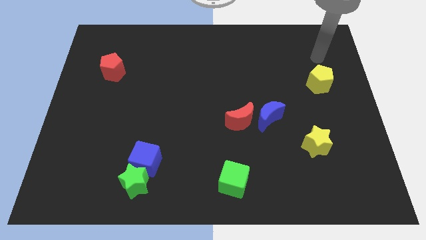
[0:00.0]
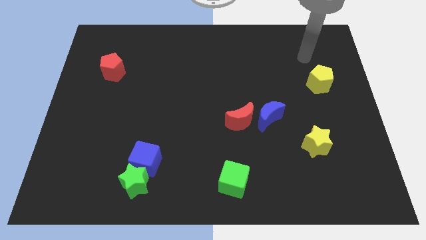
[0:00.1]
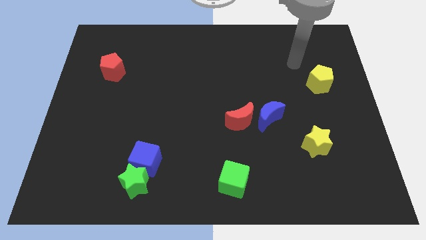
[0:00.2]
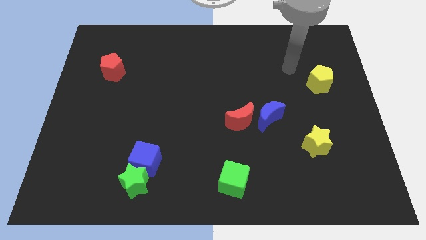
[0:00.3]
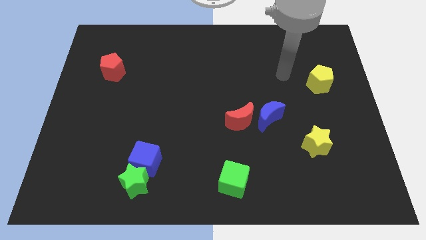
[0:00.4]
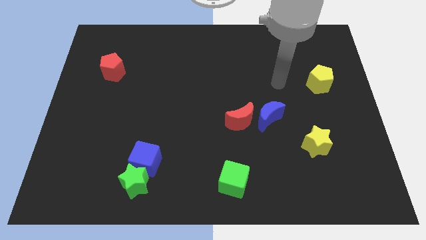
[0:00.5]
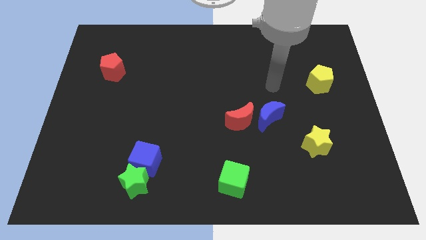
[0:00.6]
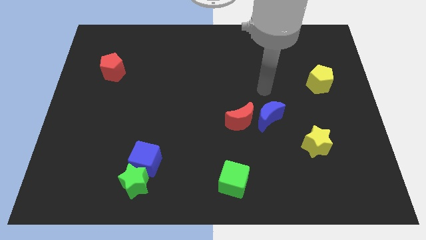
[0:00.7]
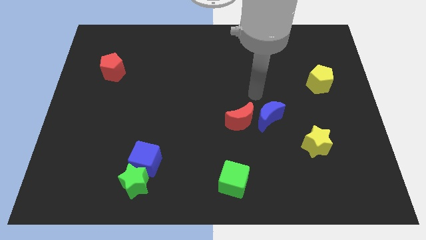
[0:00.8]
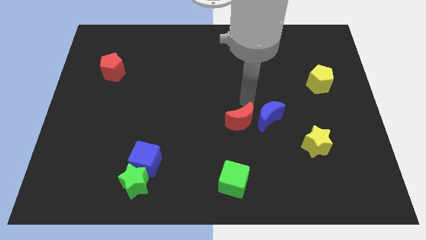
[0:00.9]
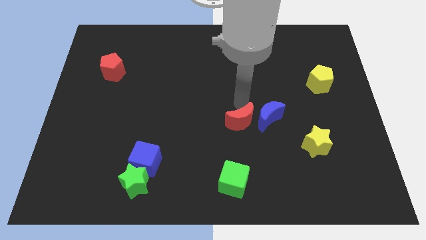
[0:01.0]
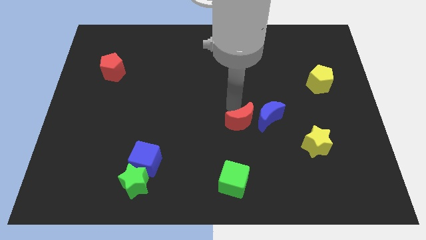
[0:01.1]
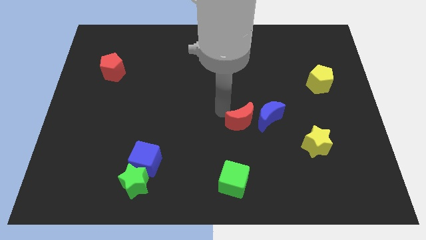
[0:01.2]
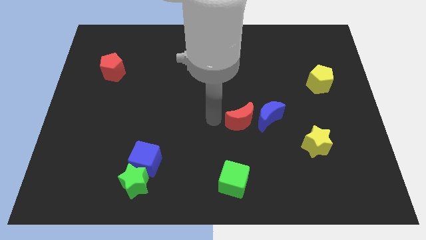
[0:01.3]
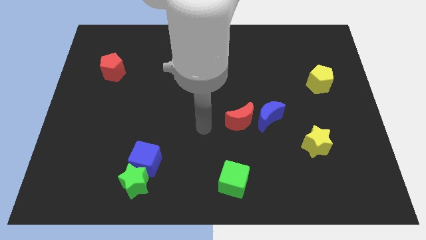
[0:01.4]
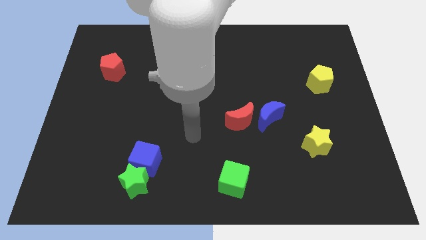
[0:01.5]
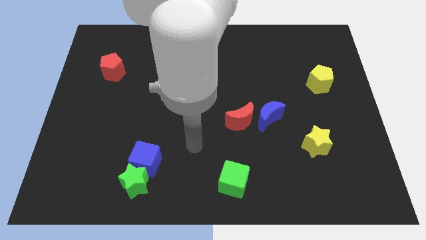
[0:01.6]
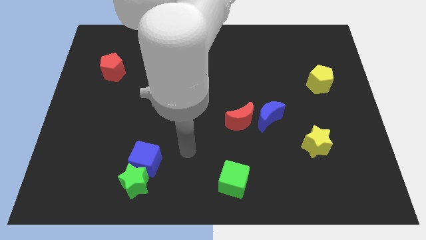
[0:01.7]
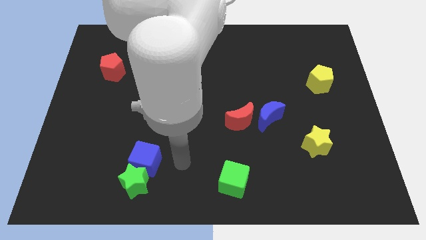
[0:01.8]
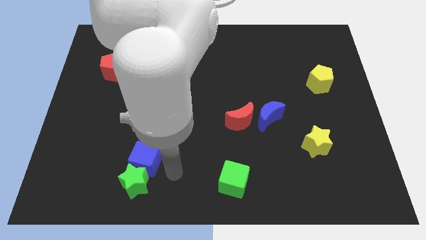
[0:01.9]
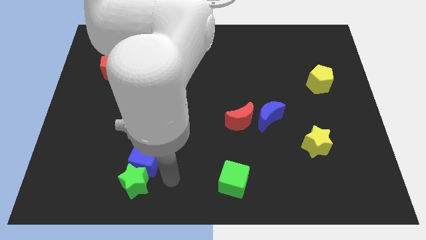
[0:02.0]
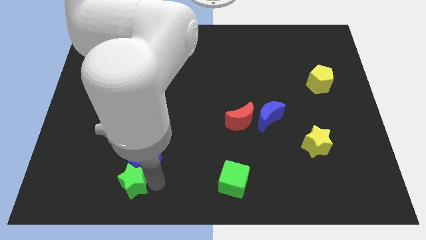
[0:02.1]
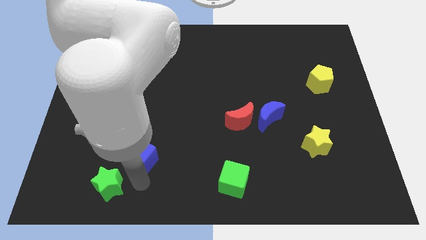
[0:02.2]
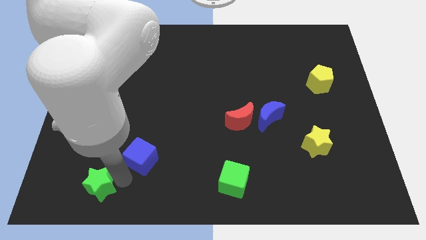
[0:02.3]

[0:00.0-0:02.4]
move the blue cube away from the green star

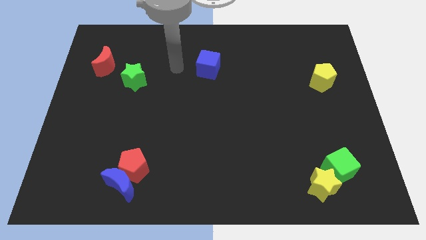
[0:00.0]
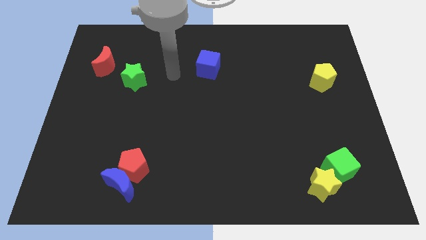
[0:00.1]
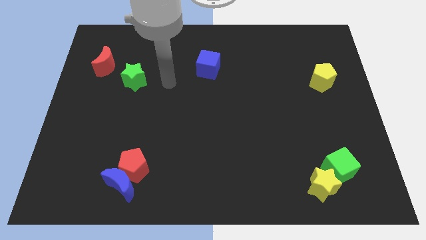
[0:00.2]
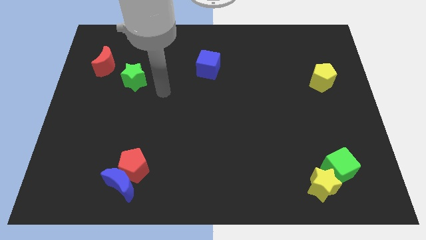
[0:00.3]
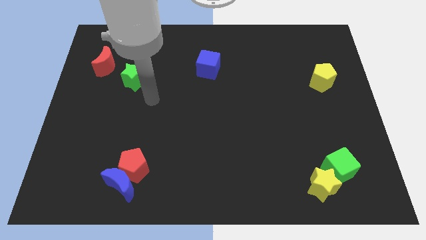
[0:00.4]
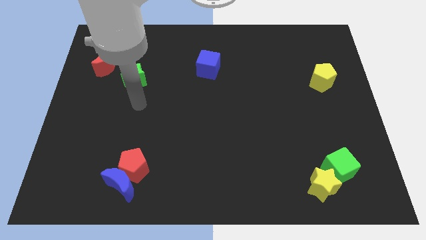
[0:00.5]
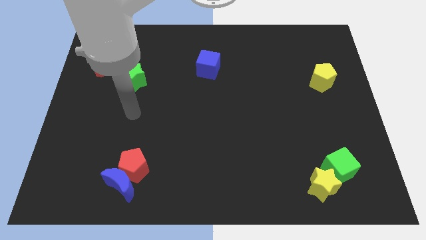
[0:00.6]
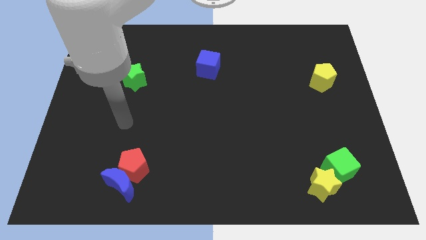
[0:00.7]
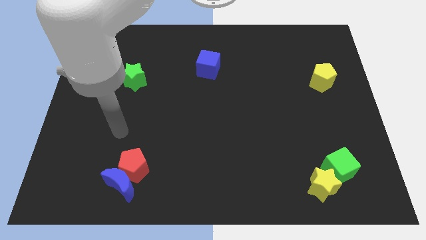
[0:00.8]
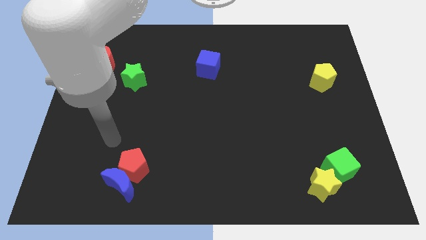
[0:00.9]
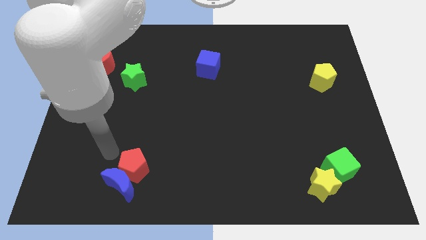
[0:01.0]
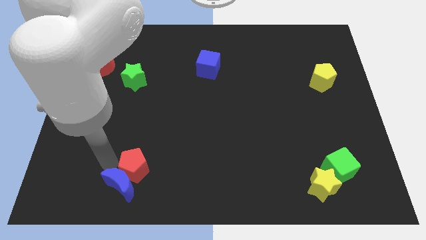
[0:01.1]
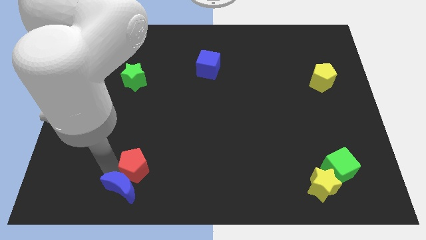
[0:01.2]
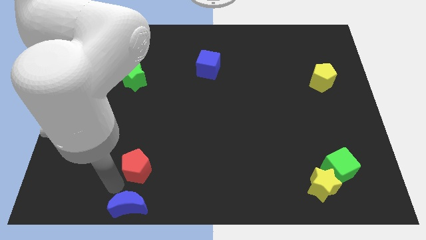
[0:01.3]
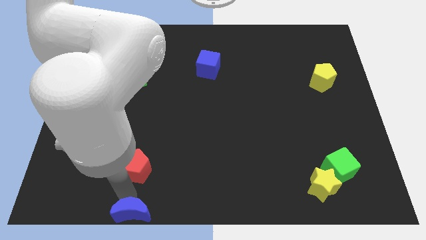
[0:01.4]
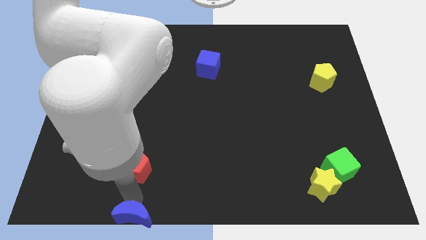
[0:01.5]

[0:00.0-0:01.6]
separate the red pentagon from the blue moon

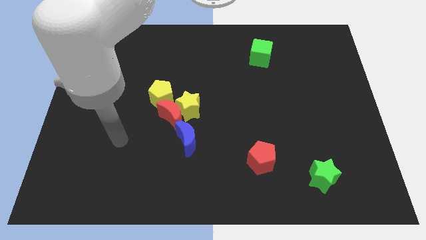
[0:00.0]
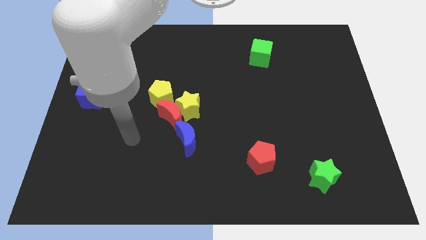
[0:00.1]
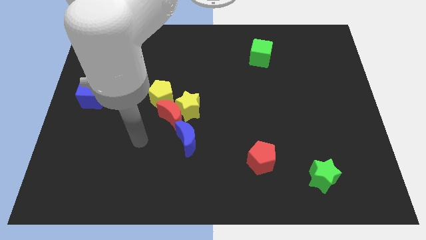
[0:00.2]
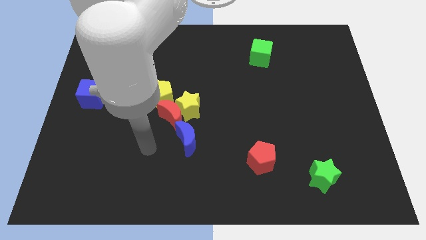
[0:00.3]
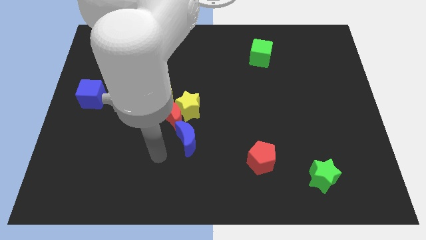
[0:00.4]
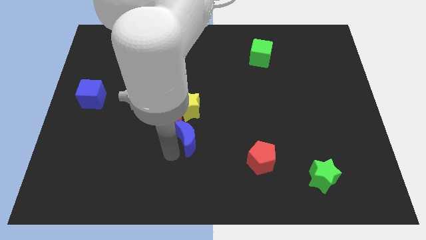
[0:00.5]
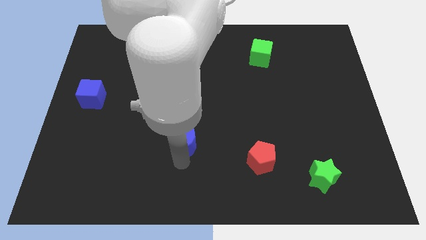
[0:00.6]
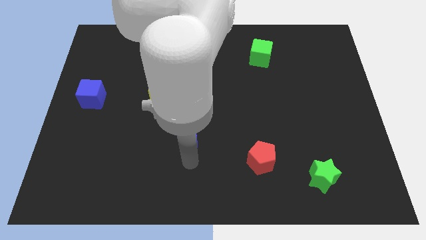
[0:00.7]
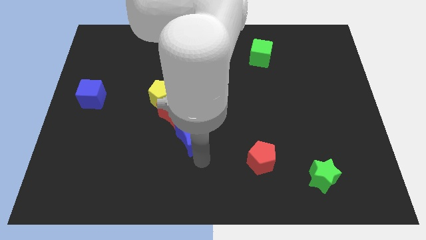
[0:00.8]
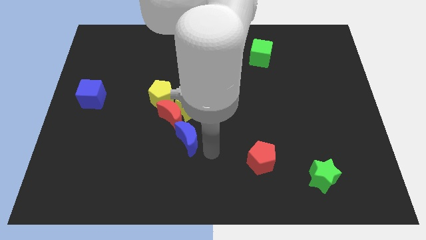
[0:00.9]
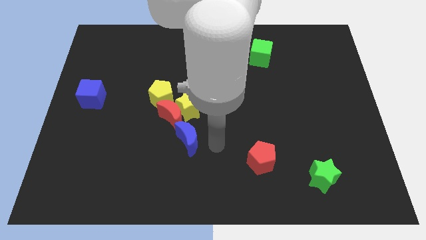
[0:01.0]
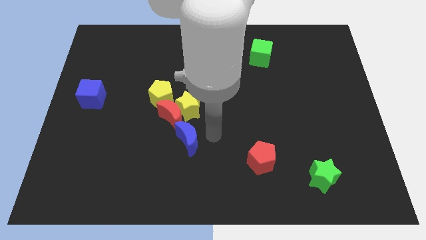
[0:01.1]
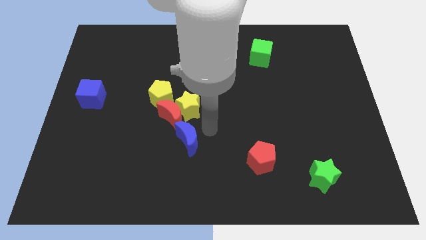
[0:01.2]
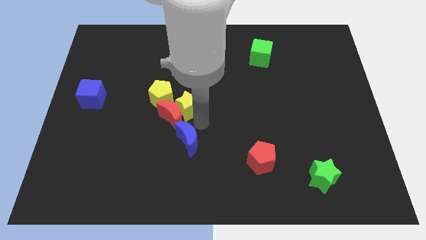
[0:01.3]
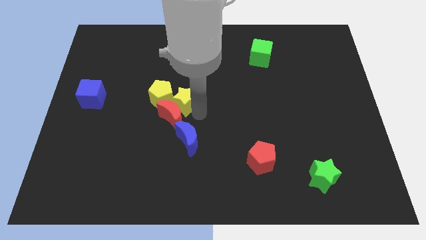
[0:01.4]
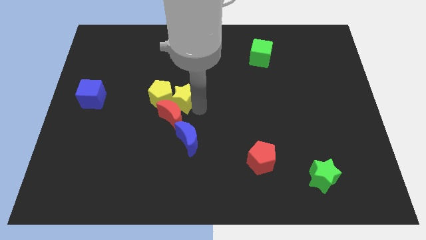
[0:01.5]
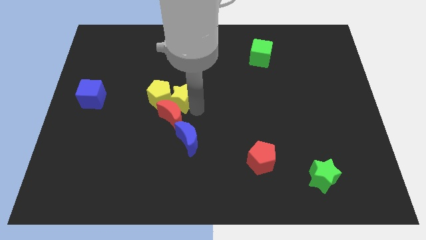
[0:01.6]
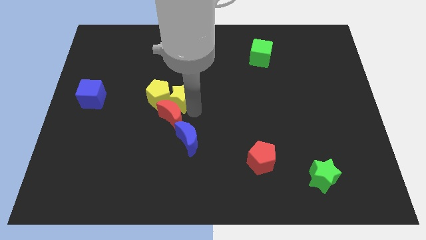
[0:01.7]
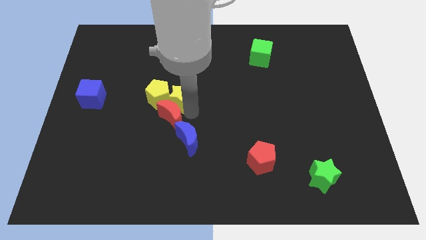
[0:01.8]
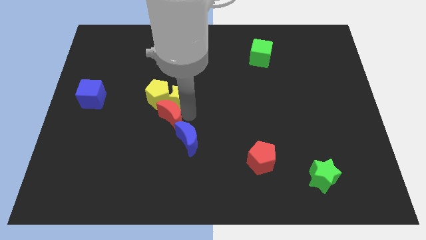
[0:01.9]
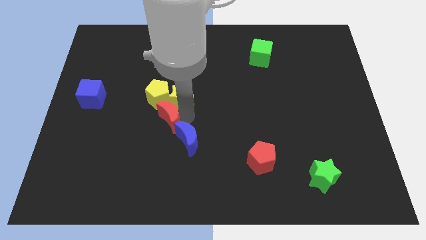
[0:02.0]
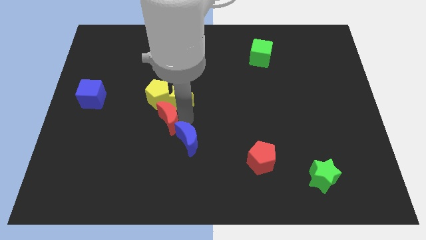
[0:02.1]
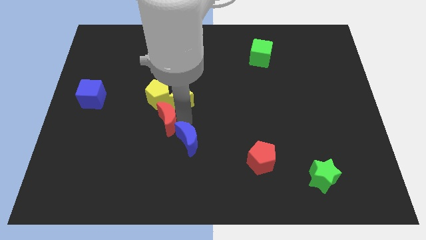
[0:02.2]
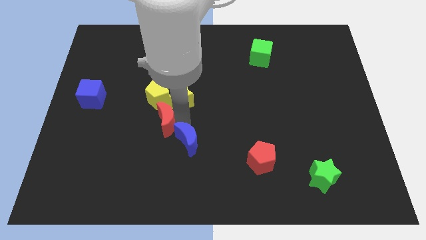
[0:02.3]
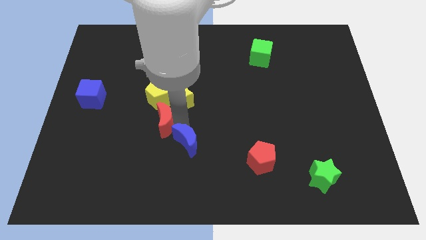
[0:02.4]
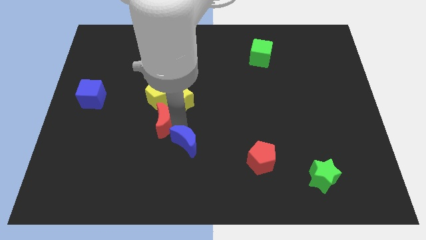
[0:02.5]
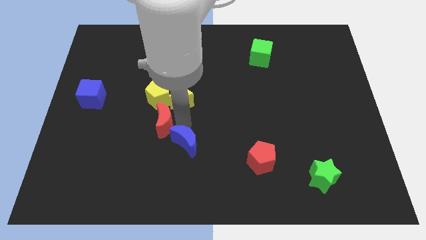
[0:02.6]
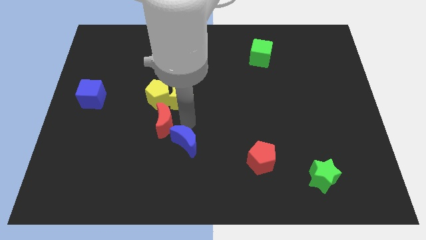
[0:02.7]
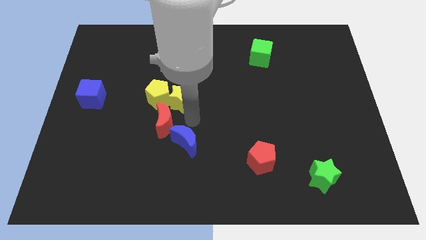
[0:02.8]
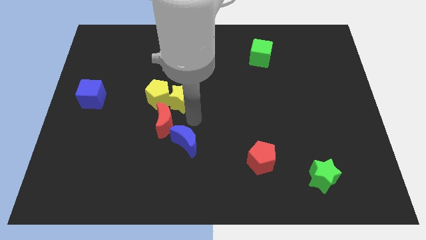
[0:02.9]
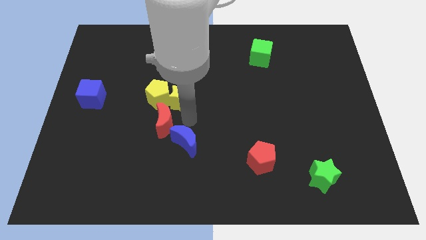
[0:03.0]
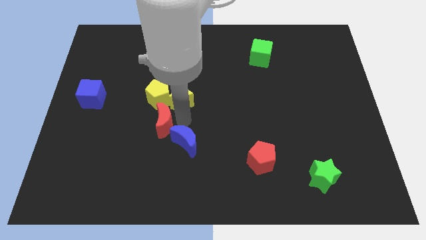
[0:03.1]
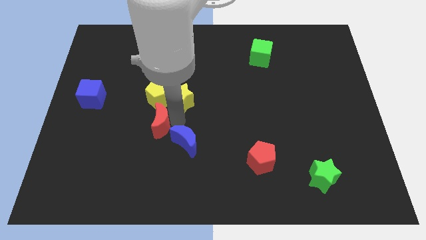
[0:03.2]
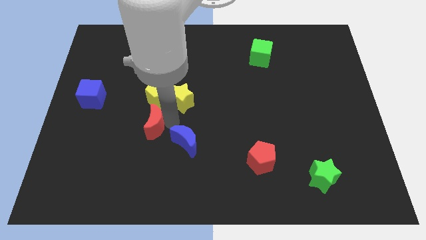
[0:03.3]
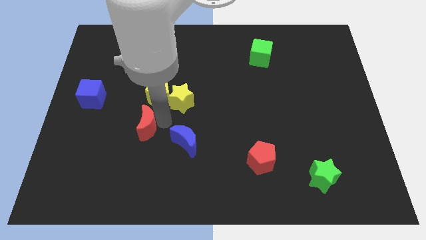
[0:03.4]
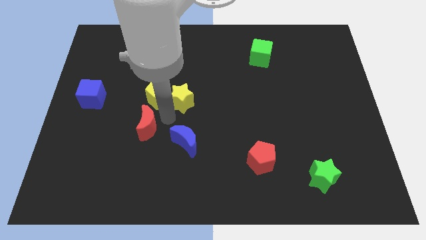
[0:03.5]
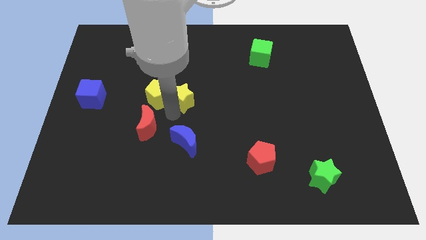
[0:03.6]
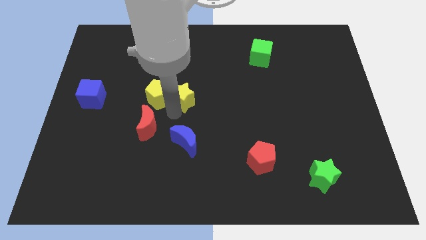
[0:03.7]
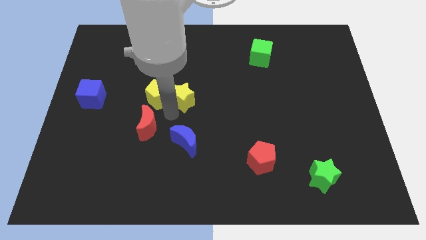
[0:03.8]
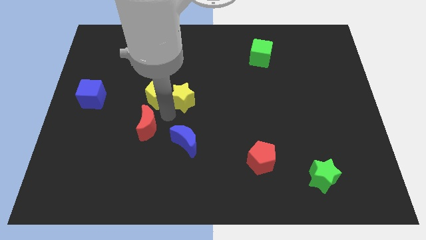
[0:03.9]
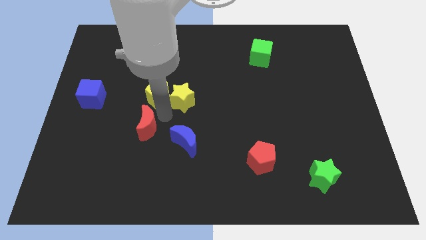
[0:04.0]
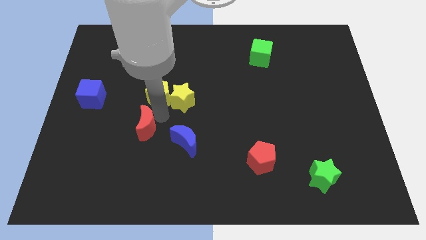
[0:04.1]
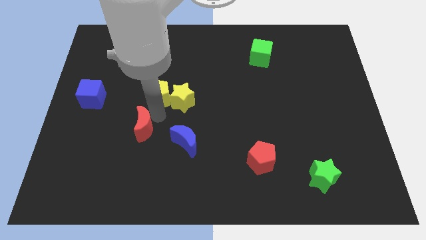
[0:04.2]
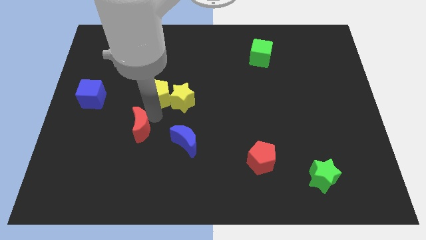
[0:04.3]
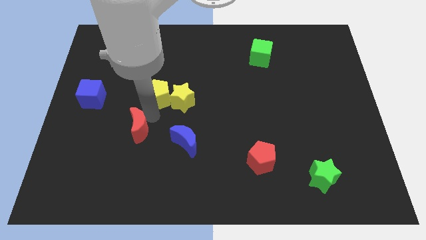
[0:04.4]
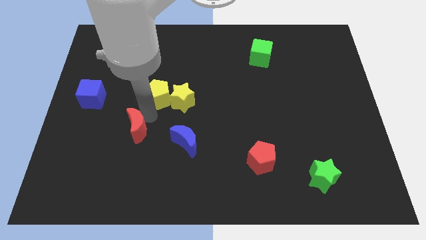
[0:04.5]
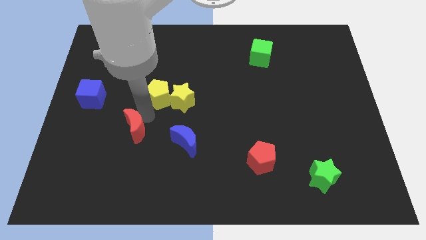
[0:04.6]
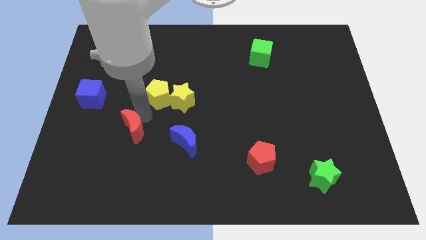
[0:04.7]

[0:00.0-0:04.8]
separate the red moon from the group of blocks

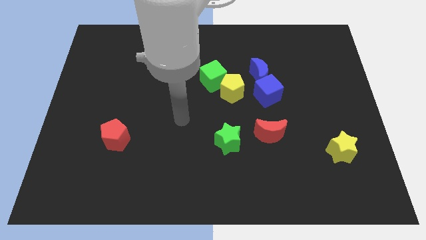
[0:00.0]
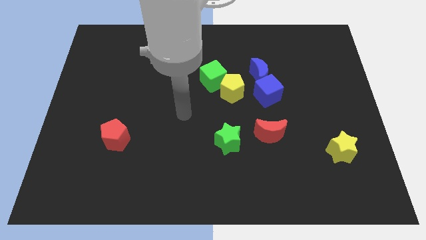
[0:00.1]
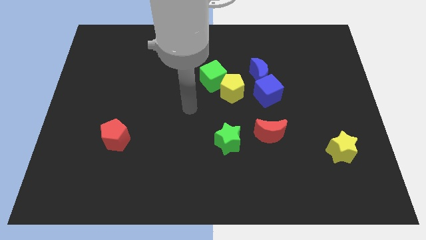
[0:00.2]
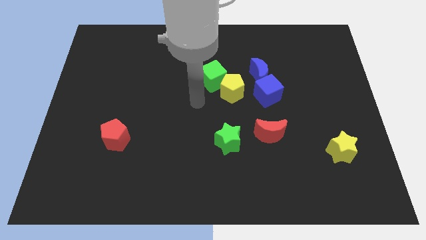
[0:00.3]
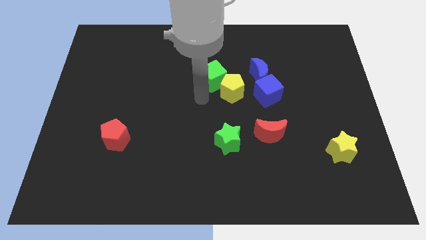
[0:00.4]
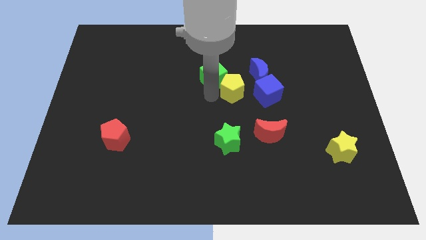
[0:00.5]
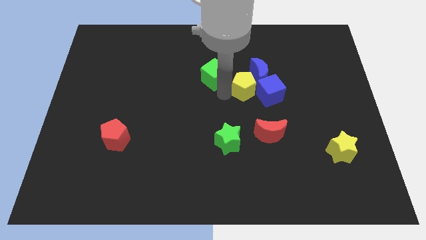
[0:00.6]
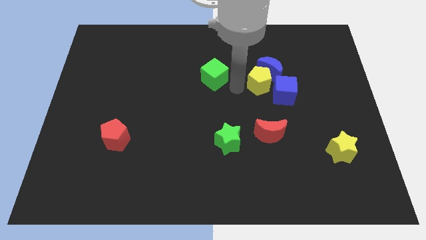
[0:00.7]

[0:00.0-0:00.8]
pull the green cube apart from the yellow pentagon
